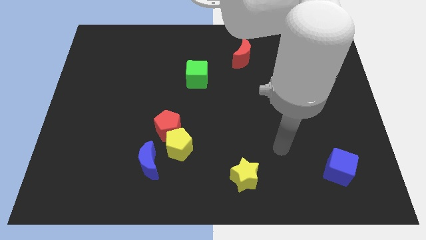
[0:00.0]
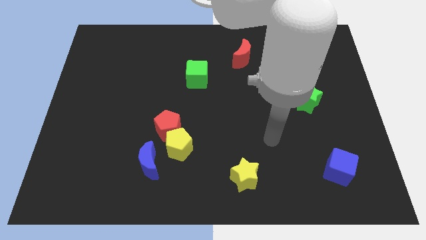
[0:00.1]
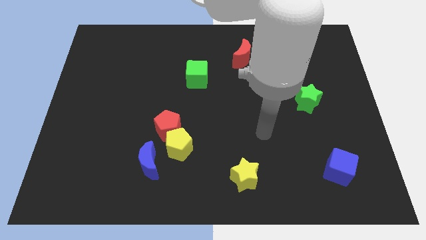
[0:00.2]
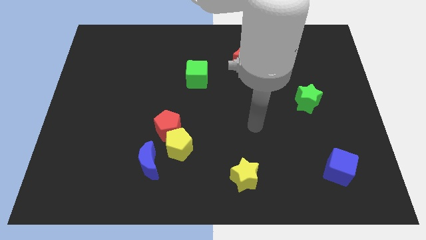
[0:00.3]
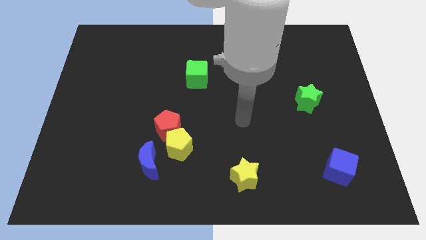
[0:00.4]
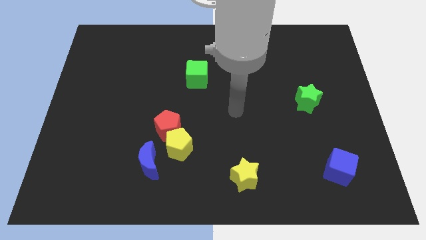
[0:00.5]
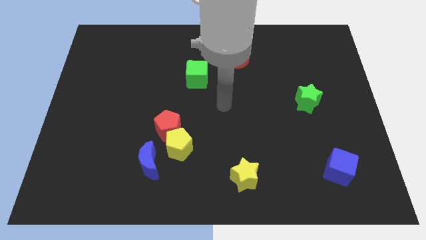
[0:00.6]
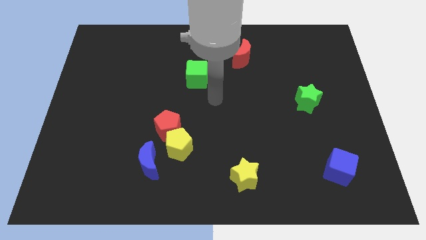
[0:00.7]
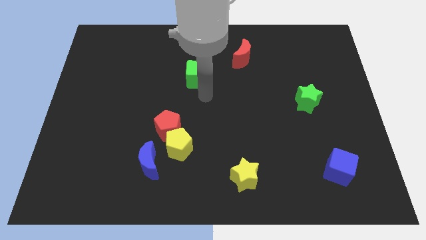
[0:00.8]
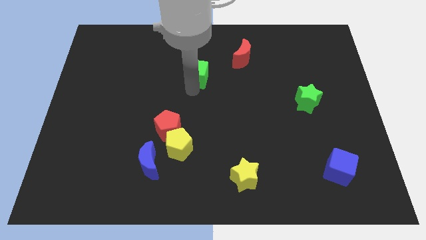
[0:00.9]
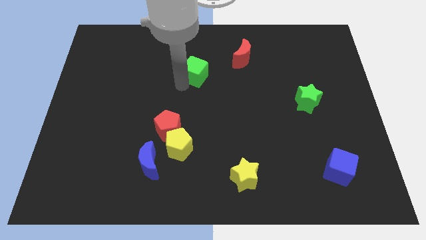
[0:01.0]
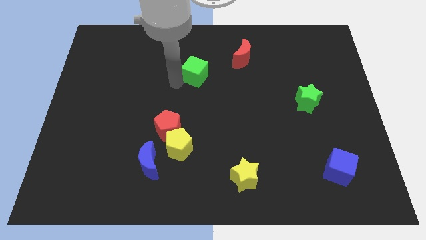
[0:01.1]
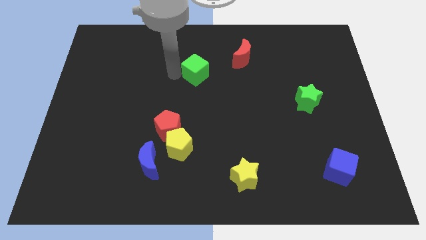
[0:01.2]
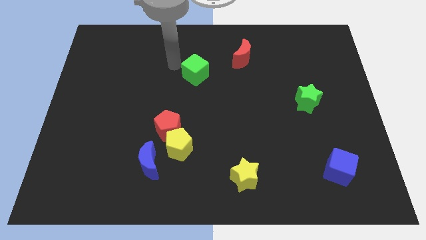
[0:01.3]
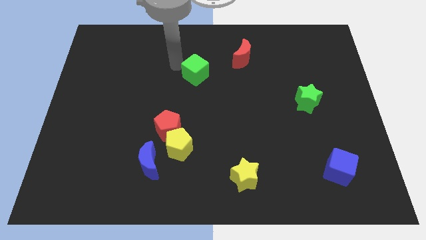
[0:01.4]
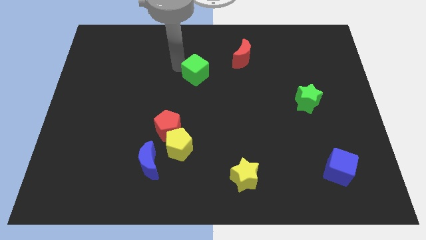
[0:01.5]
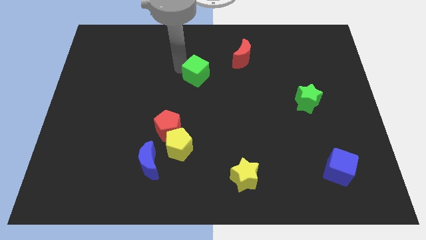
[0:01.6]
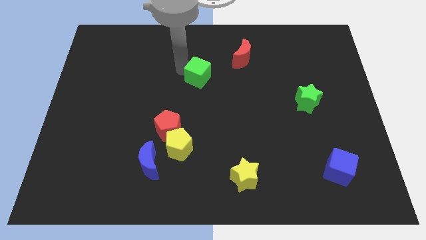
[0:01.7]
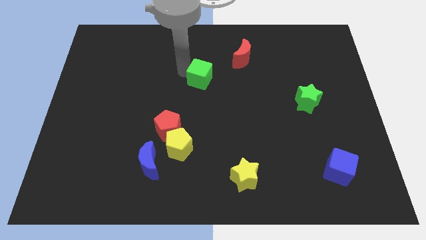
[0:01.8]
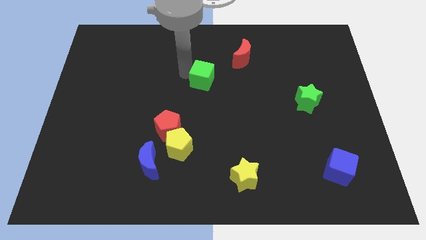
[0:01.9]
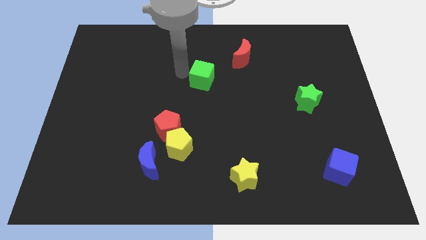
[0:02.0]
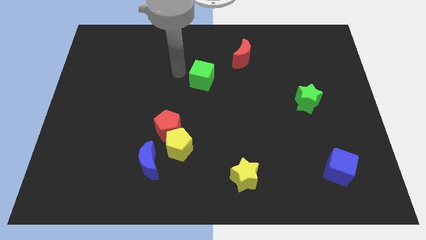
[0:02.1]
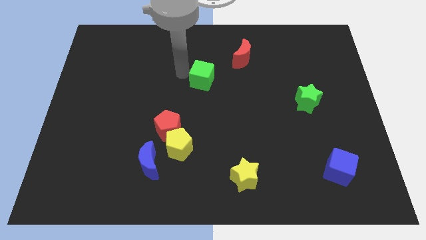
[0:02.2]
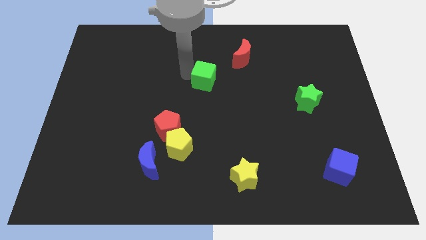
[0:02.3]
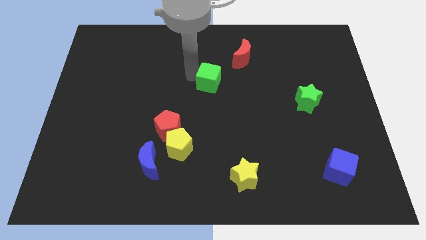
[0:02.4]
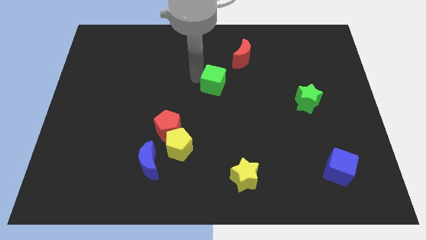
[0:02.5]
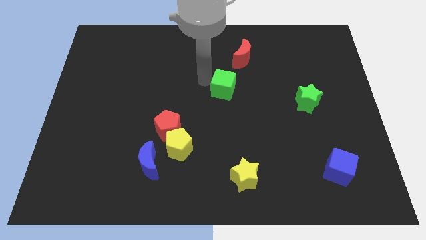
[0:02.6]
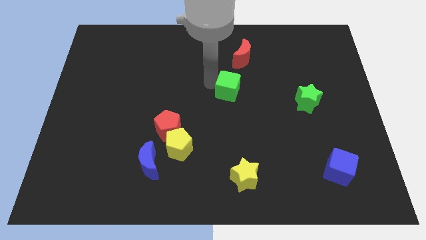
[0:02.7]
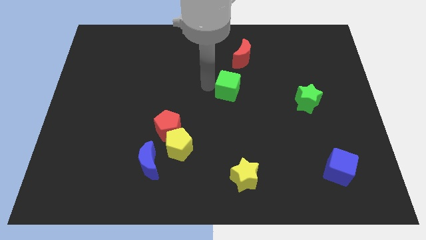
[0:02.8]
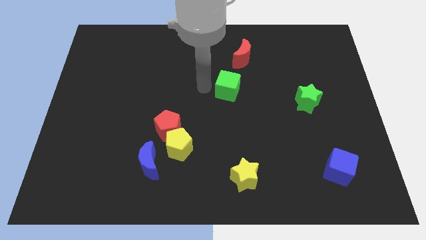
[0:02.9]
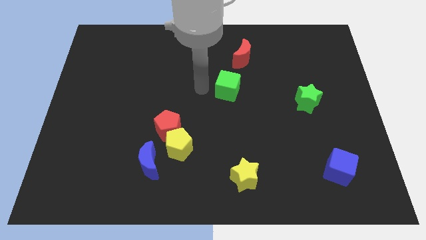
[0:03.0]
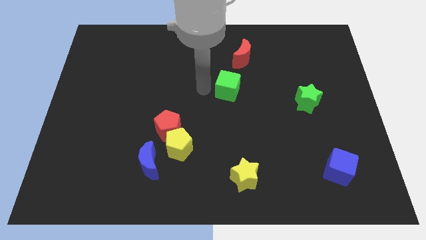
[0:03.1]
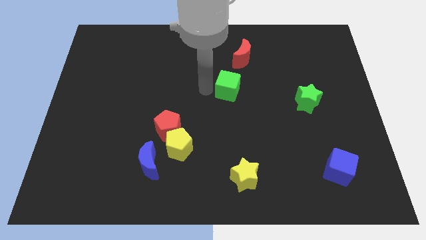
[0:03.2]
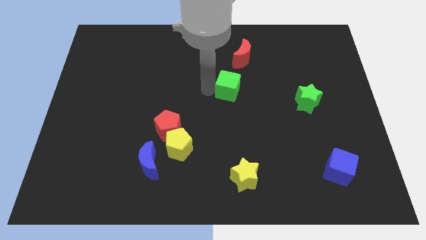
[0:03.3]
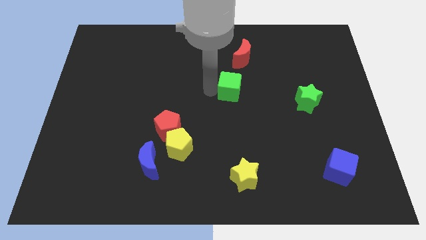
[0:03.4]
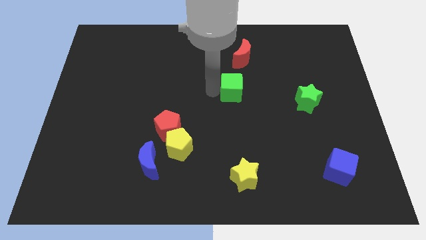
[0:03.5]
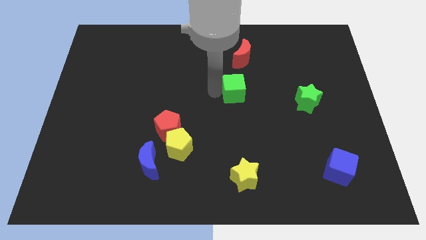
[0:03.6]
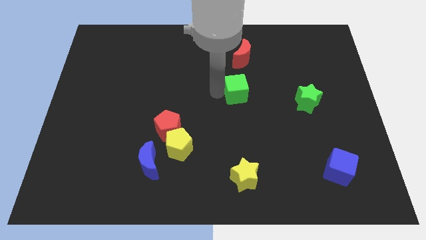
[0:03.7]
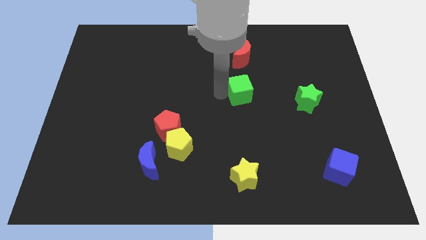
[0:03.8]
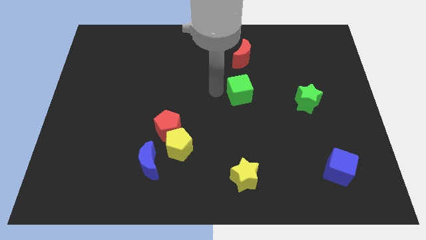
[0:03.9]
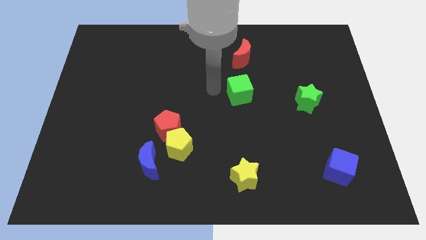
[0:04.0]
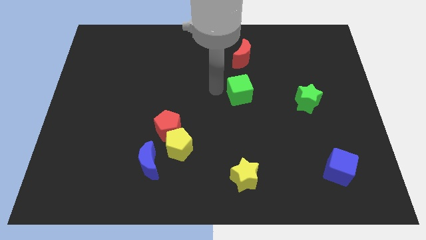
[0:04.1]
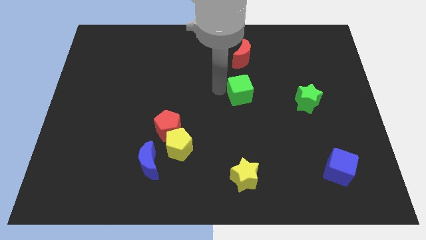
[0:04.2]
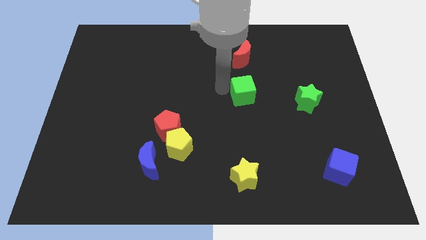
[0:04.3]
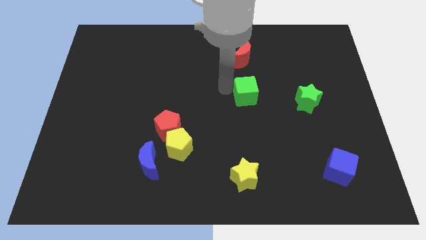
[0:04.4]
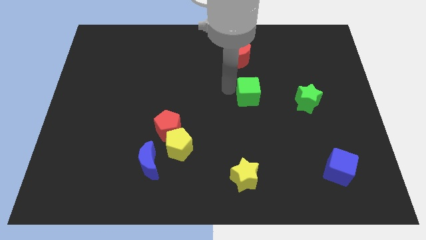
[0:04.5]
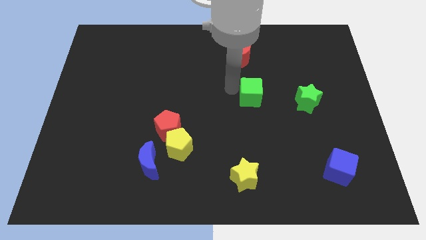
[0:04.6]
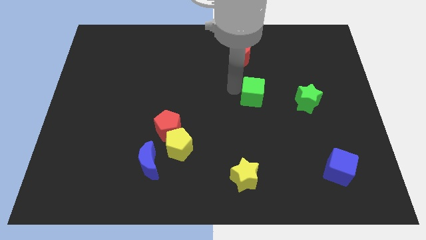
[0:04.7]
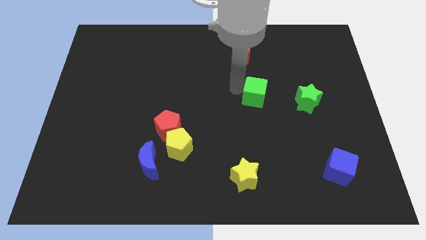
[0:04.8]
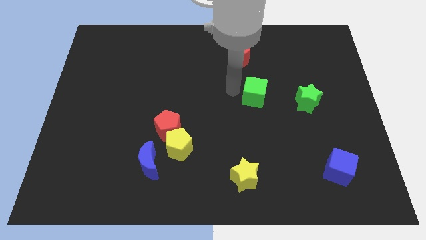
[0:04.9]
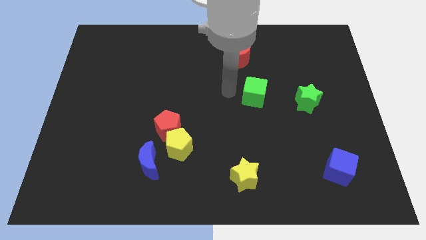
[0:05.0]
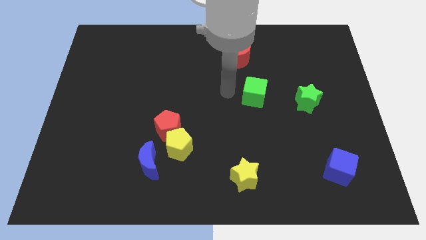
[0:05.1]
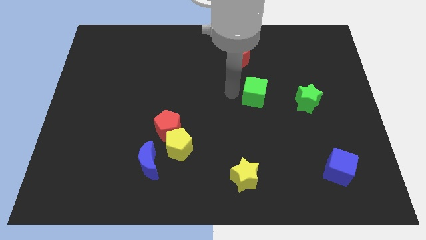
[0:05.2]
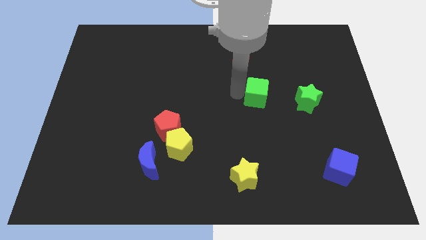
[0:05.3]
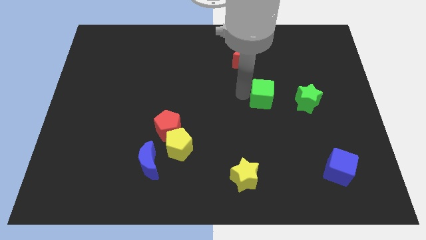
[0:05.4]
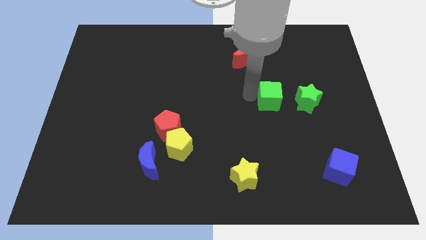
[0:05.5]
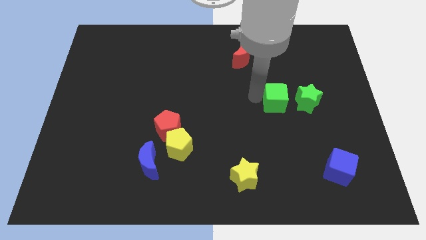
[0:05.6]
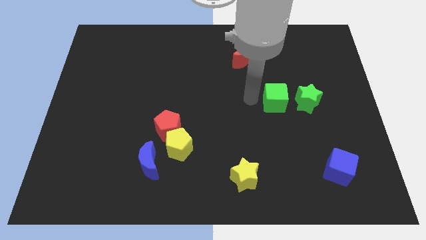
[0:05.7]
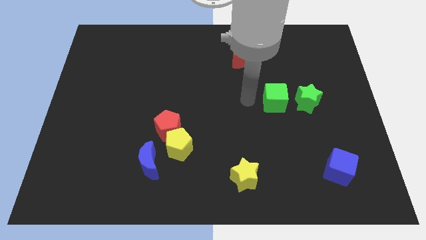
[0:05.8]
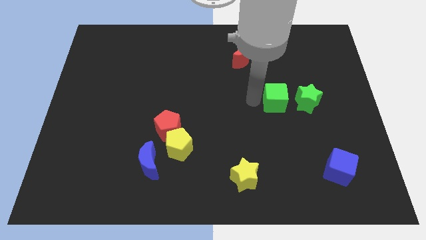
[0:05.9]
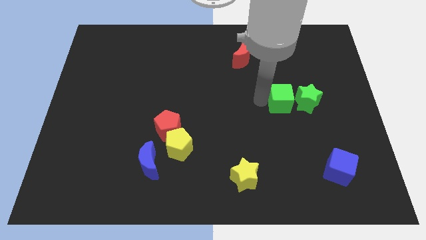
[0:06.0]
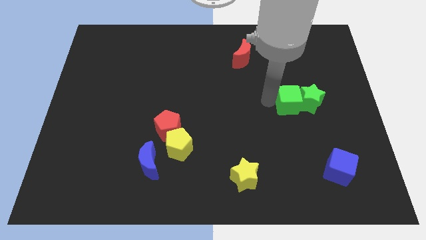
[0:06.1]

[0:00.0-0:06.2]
move the green cube to the green star
